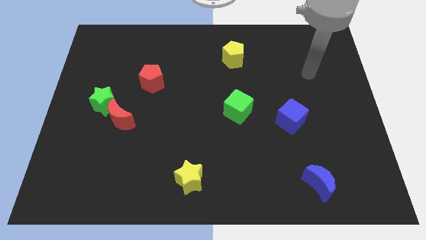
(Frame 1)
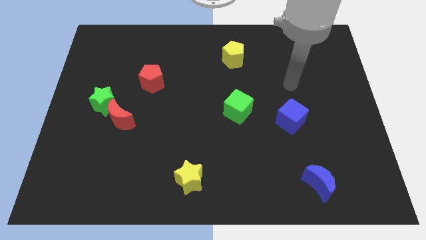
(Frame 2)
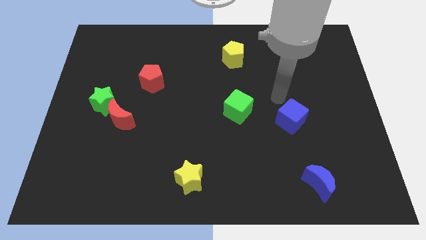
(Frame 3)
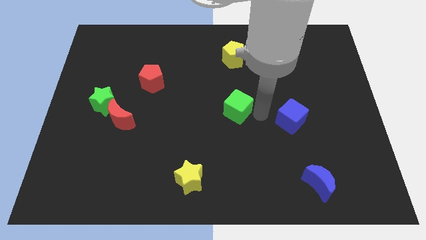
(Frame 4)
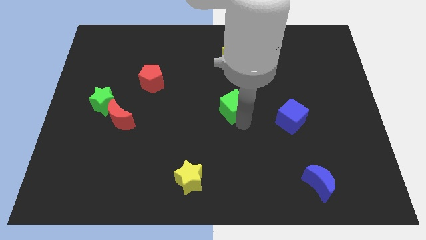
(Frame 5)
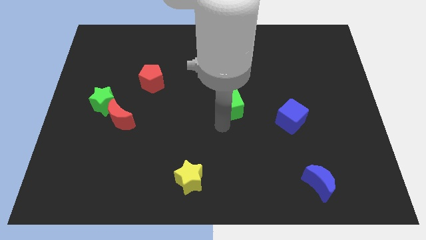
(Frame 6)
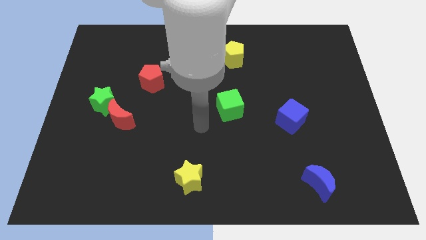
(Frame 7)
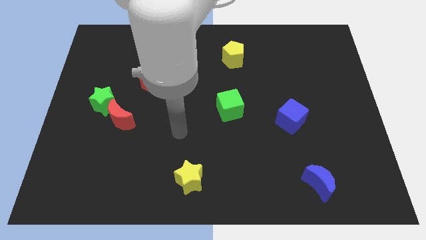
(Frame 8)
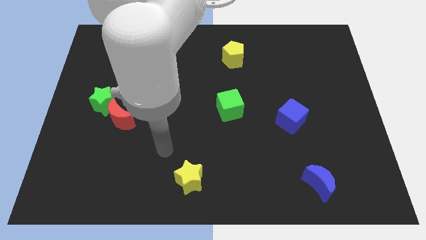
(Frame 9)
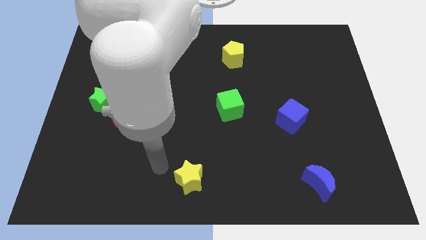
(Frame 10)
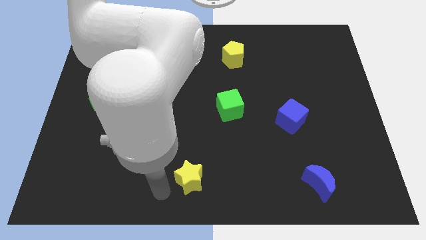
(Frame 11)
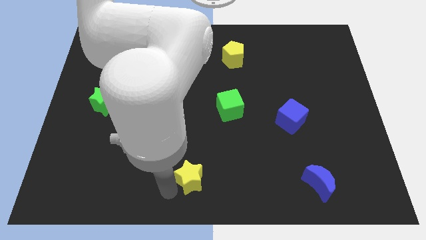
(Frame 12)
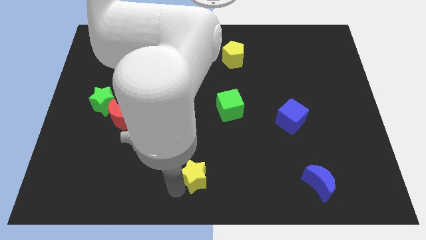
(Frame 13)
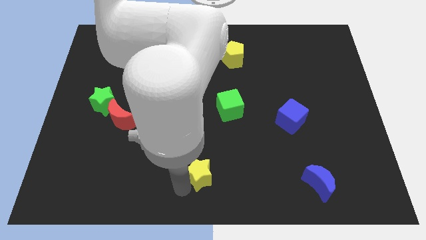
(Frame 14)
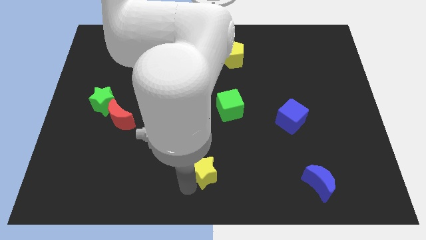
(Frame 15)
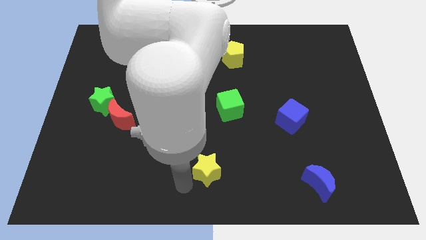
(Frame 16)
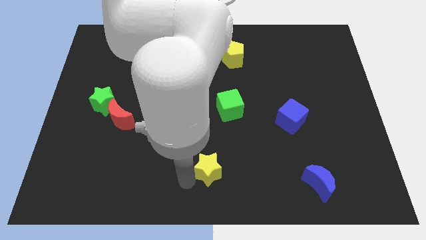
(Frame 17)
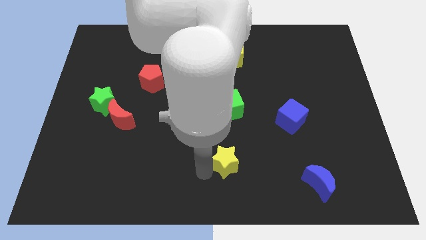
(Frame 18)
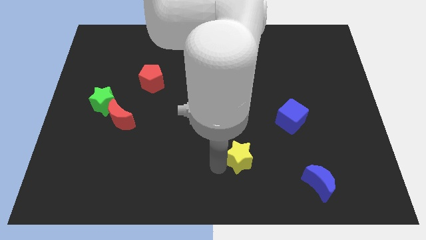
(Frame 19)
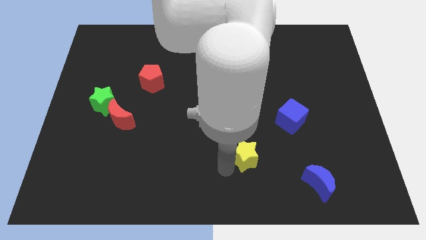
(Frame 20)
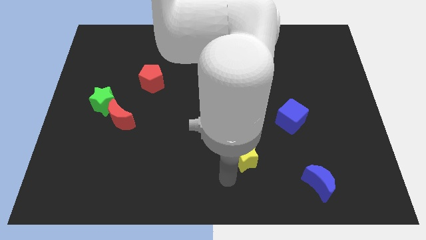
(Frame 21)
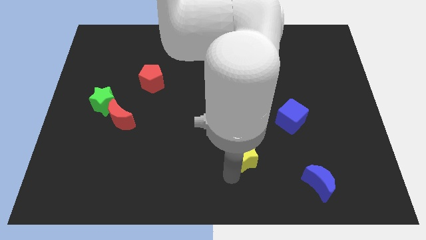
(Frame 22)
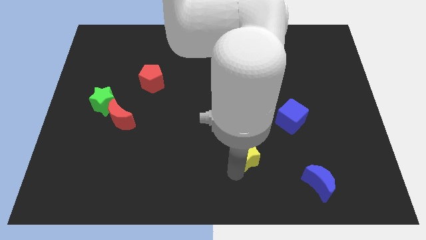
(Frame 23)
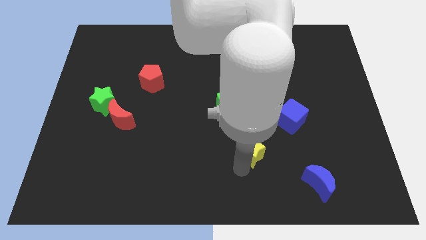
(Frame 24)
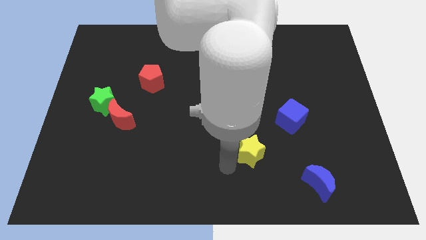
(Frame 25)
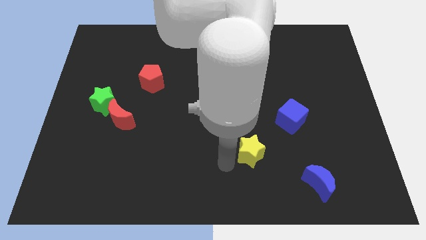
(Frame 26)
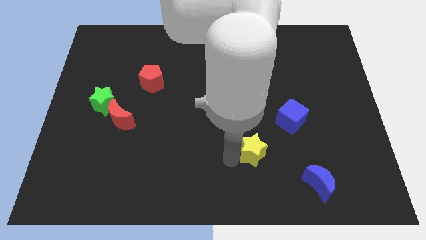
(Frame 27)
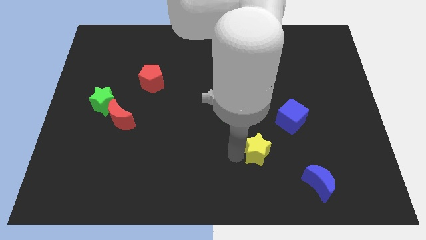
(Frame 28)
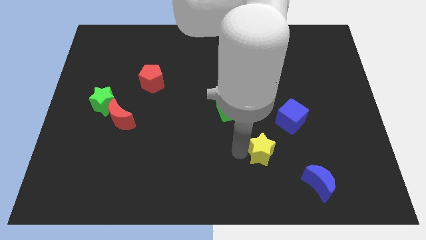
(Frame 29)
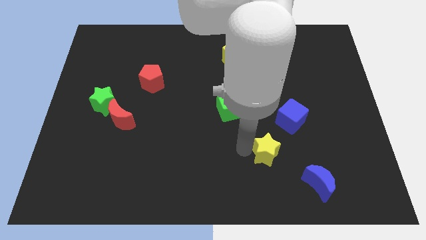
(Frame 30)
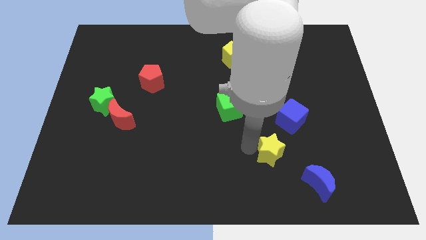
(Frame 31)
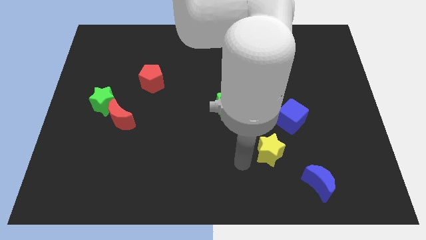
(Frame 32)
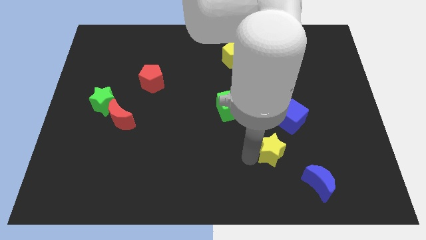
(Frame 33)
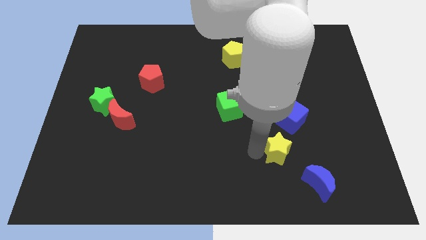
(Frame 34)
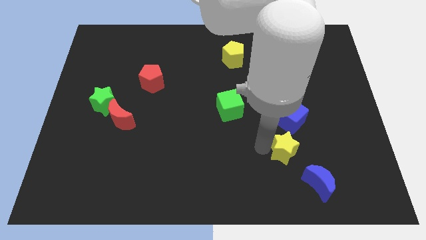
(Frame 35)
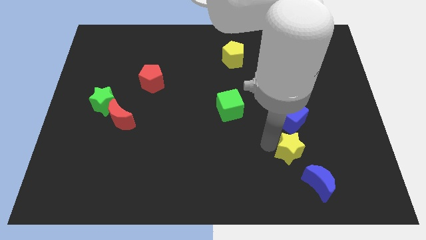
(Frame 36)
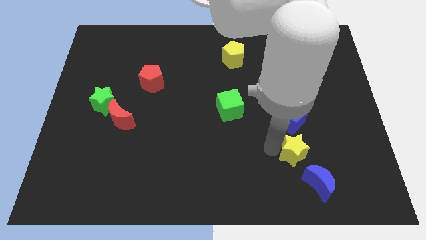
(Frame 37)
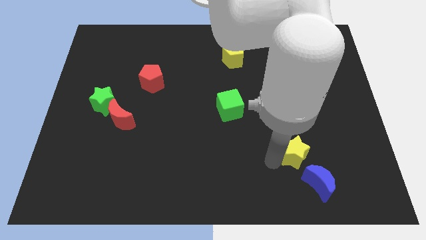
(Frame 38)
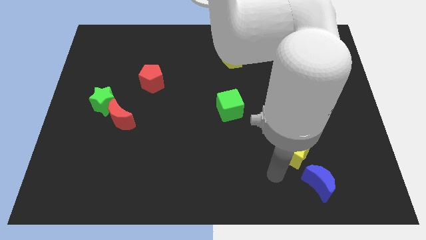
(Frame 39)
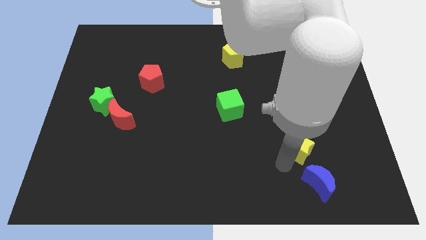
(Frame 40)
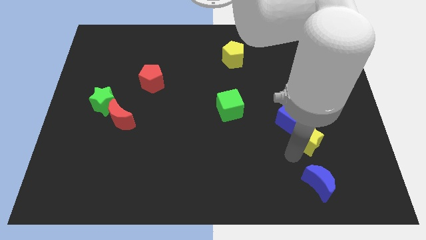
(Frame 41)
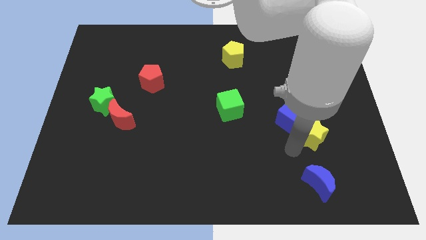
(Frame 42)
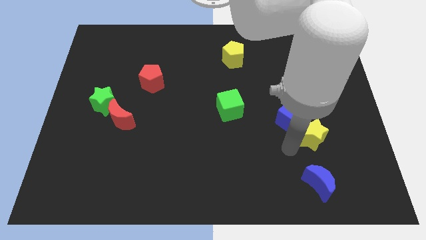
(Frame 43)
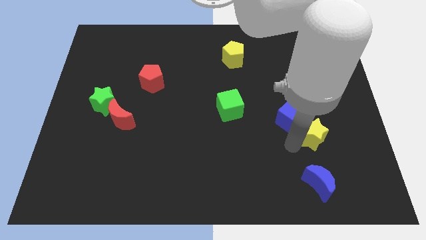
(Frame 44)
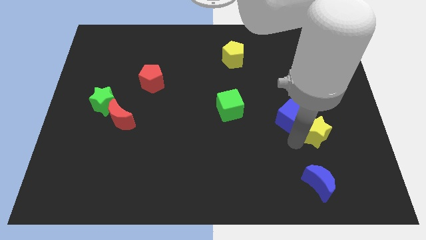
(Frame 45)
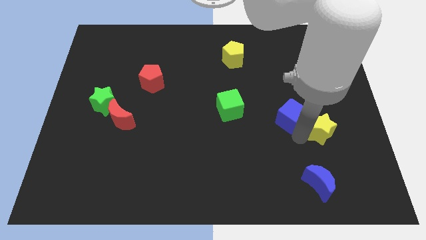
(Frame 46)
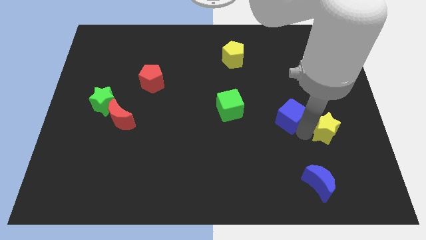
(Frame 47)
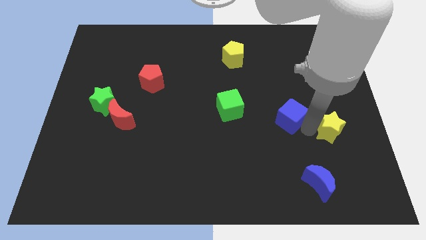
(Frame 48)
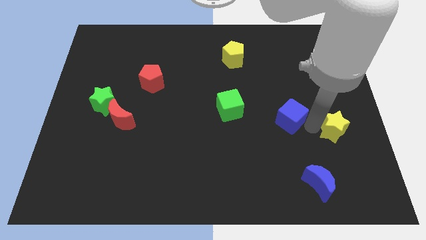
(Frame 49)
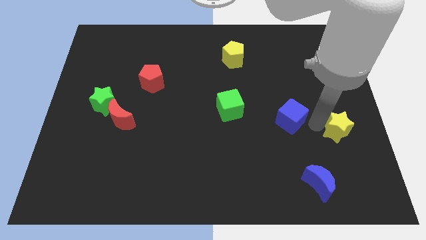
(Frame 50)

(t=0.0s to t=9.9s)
move the yellow star to the right side of the board

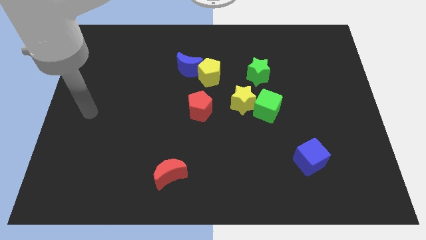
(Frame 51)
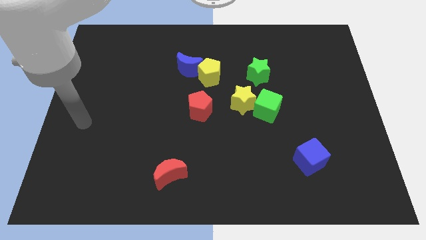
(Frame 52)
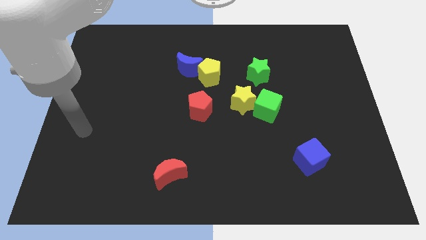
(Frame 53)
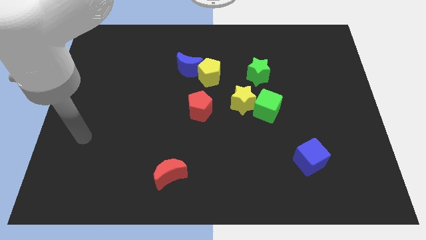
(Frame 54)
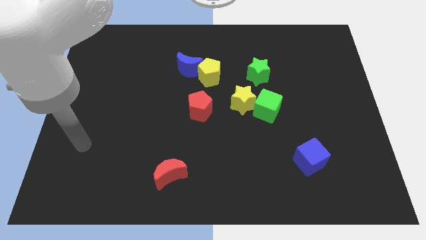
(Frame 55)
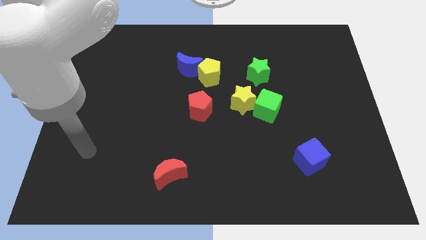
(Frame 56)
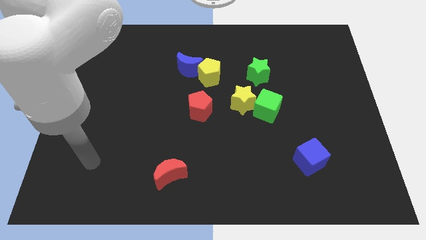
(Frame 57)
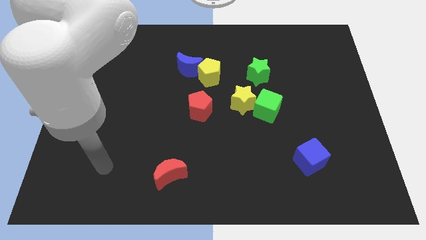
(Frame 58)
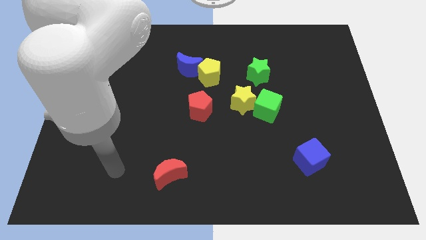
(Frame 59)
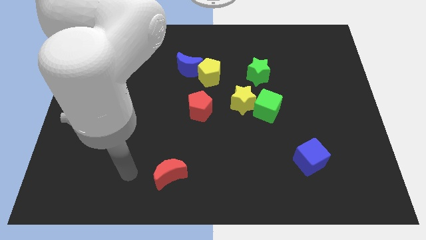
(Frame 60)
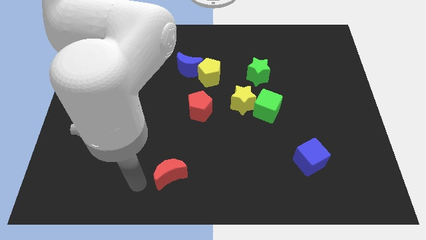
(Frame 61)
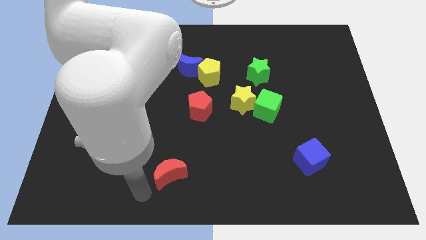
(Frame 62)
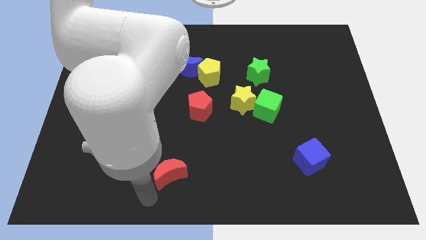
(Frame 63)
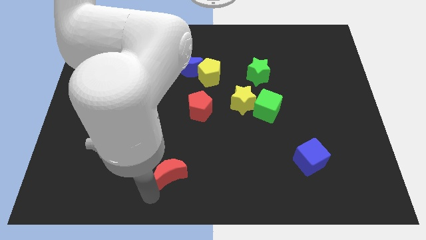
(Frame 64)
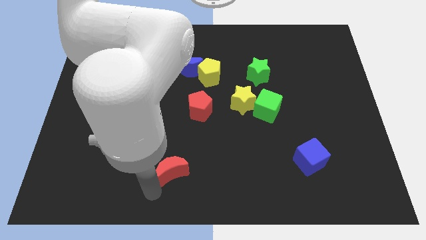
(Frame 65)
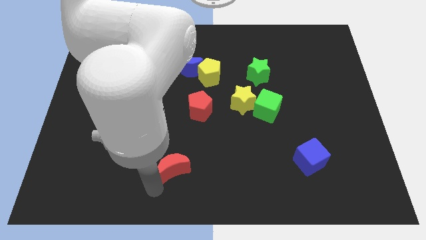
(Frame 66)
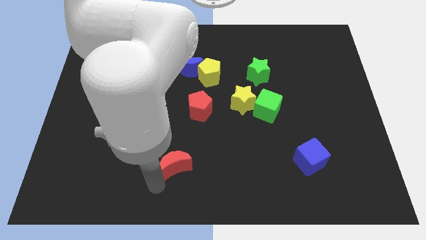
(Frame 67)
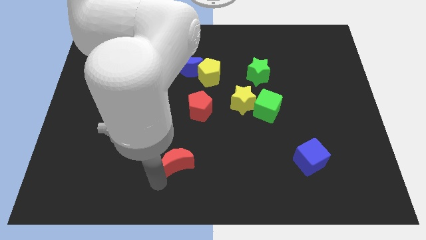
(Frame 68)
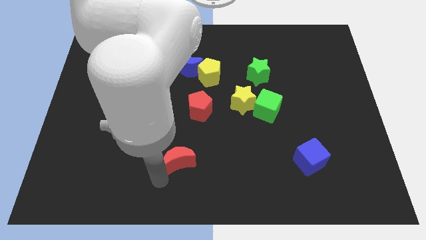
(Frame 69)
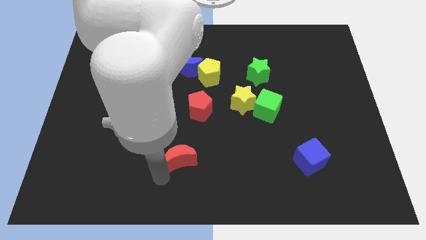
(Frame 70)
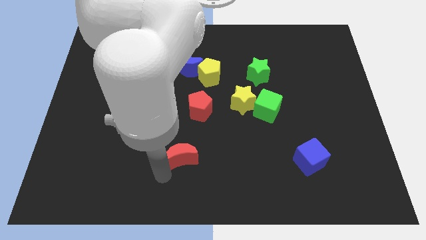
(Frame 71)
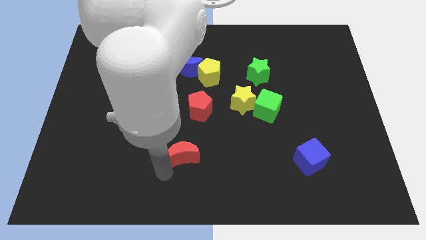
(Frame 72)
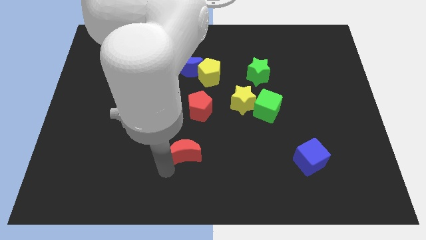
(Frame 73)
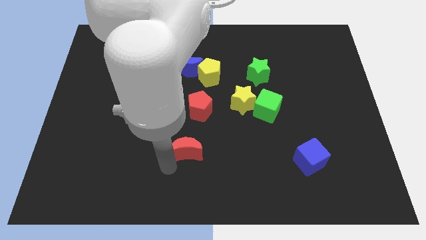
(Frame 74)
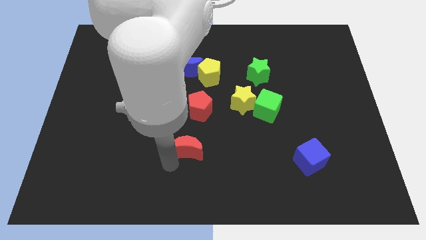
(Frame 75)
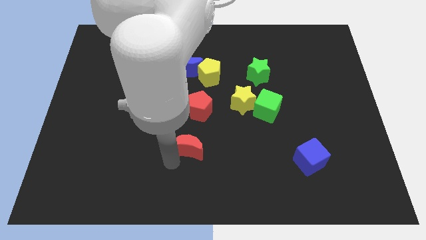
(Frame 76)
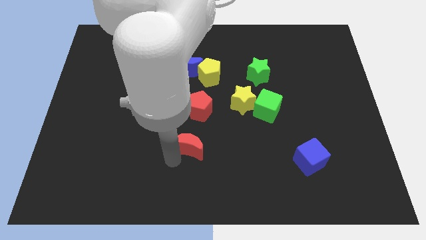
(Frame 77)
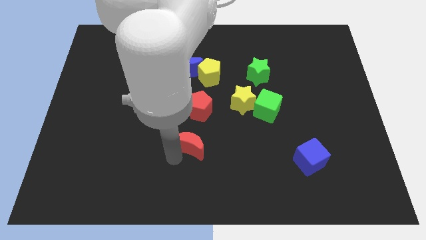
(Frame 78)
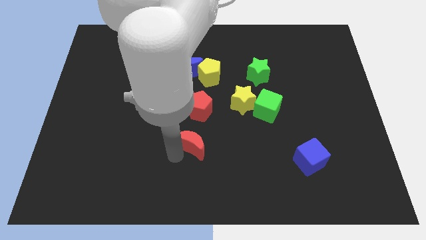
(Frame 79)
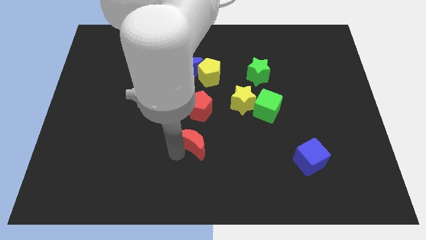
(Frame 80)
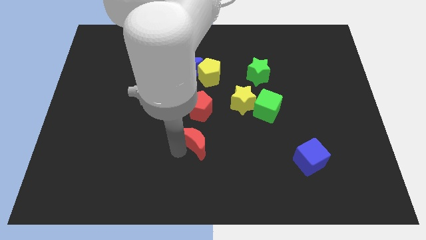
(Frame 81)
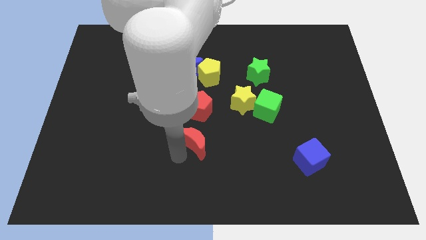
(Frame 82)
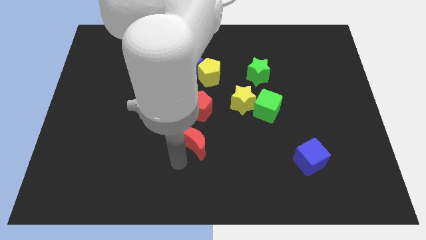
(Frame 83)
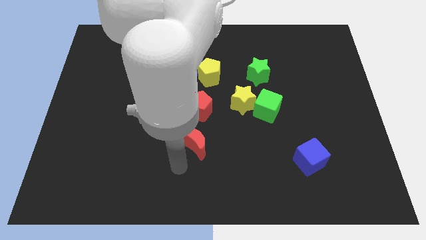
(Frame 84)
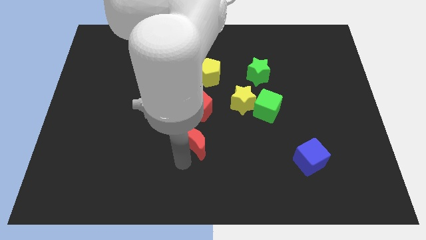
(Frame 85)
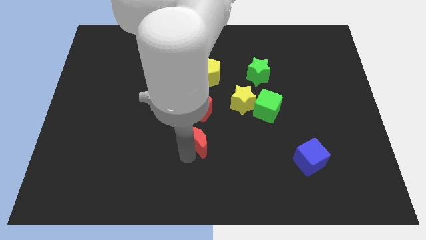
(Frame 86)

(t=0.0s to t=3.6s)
move the red moon to the middle of the board
